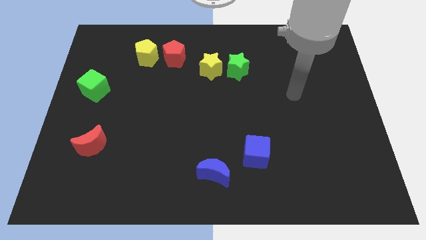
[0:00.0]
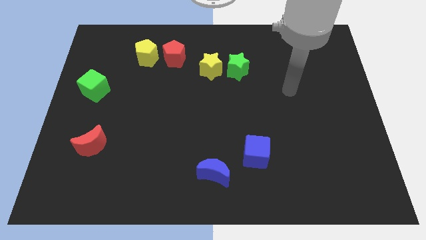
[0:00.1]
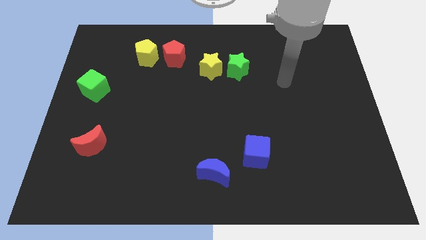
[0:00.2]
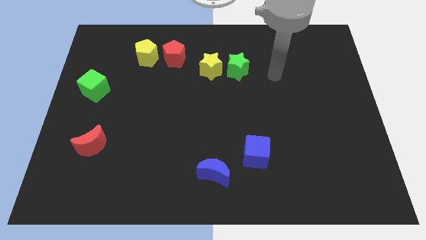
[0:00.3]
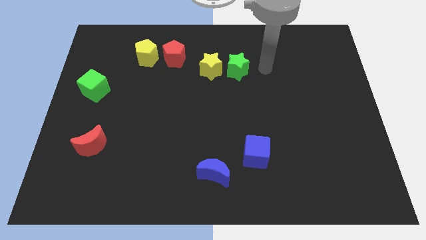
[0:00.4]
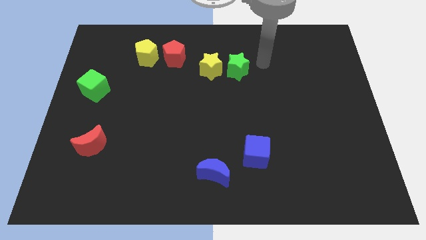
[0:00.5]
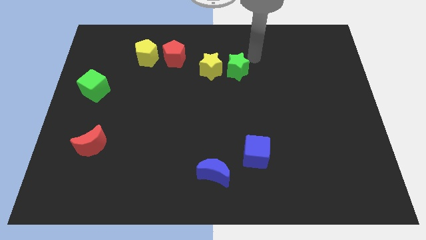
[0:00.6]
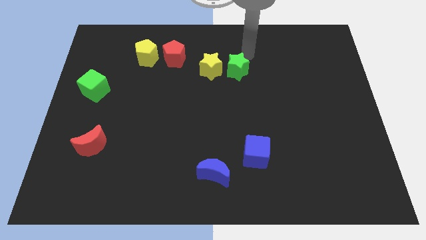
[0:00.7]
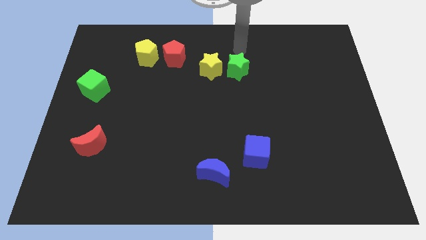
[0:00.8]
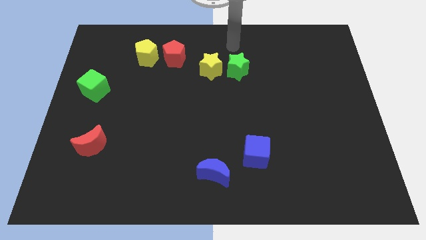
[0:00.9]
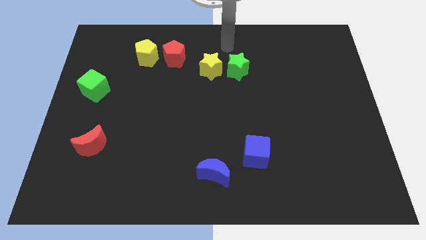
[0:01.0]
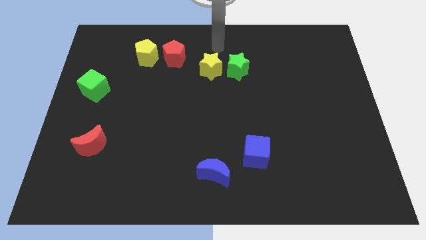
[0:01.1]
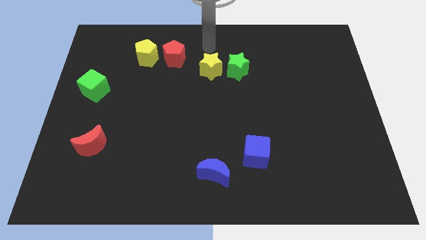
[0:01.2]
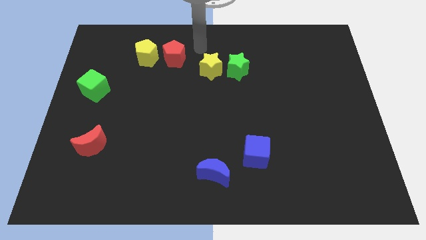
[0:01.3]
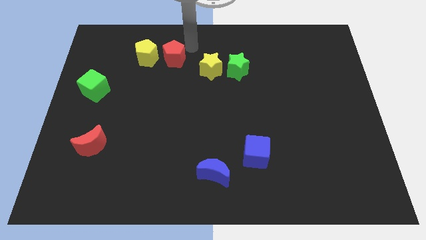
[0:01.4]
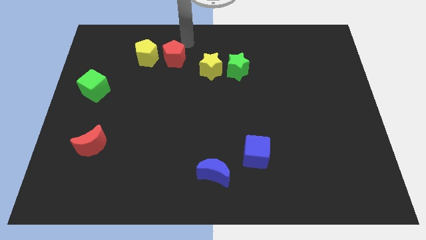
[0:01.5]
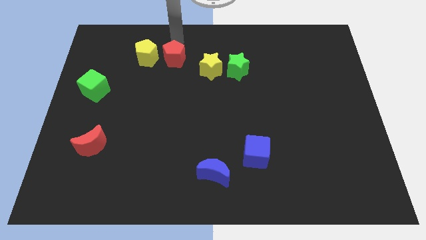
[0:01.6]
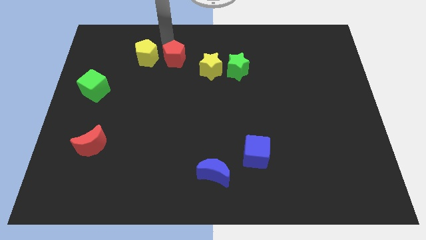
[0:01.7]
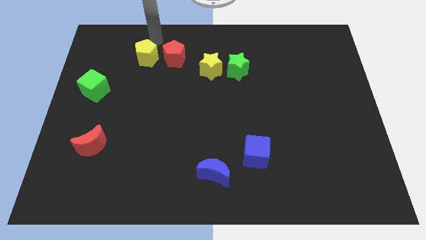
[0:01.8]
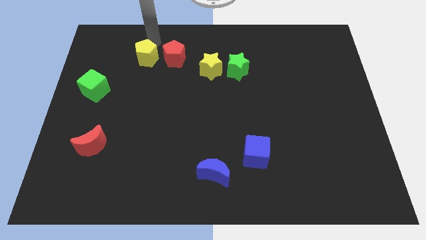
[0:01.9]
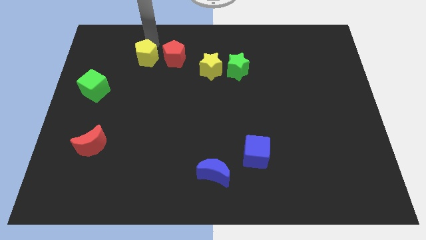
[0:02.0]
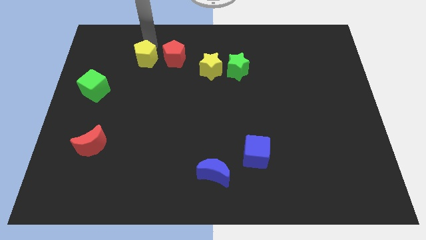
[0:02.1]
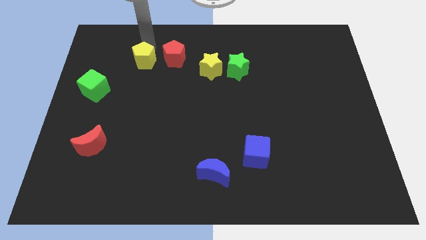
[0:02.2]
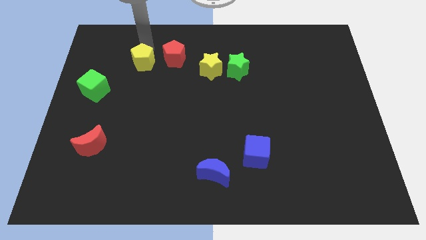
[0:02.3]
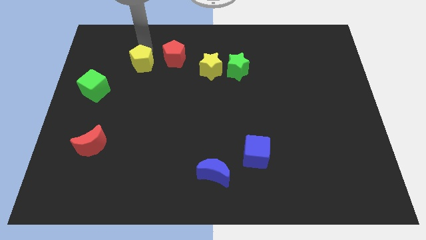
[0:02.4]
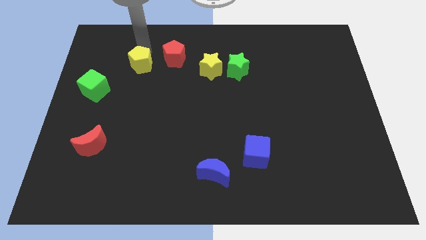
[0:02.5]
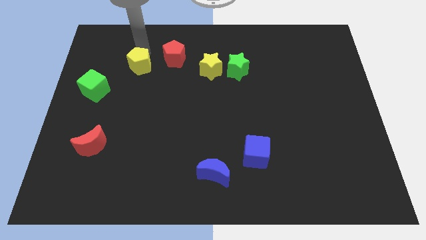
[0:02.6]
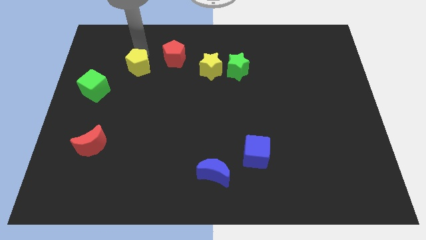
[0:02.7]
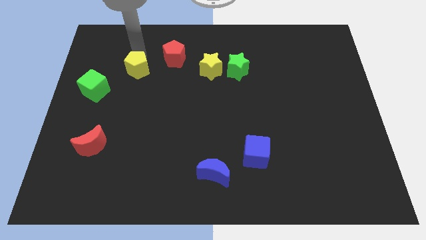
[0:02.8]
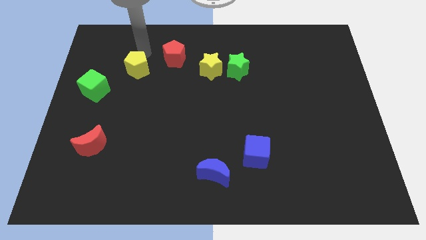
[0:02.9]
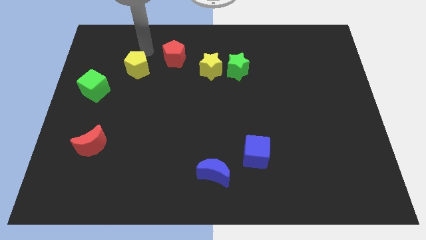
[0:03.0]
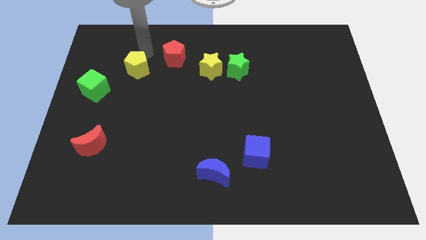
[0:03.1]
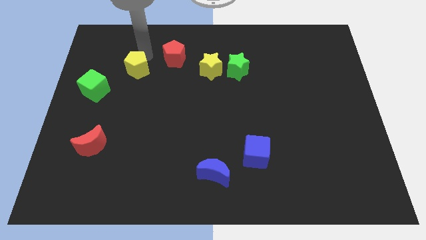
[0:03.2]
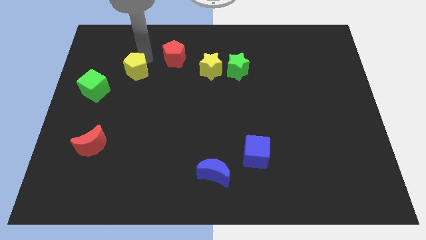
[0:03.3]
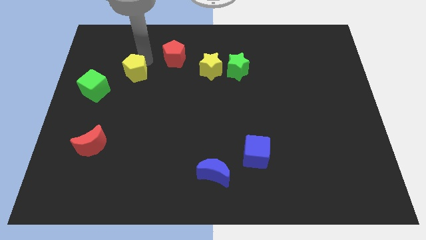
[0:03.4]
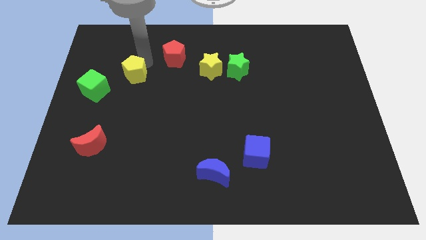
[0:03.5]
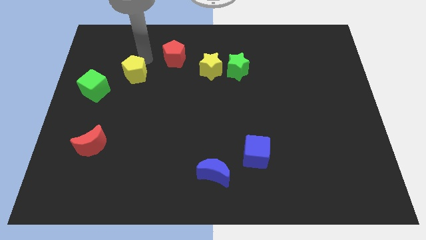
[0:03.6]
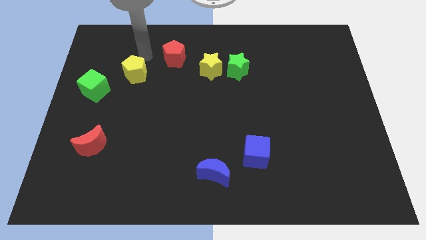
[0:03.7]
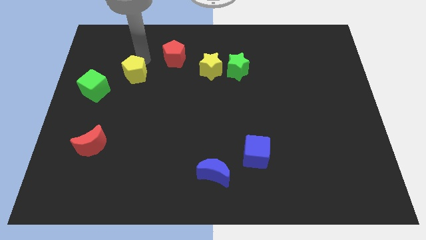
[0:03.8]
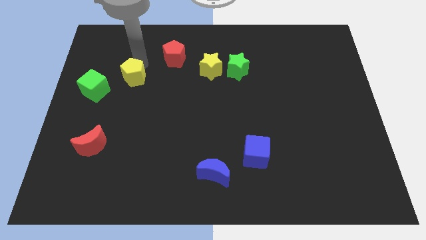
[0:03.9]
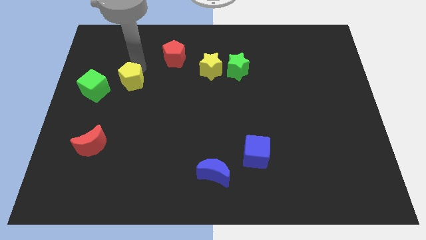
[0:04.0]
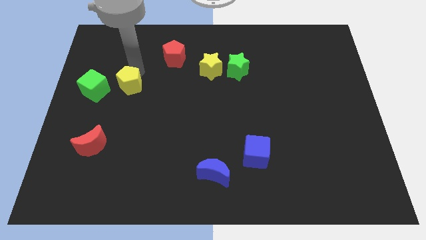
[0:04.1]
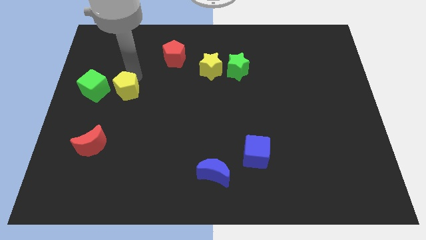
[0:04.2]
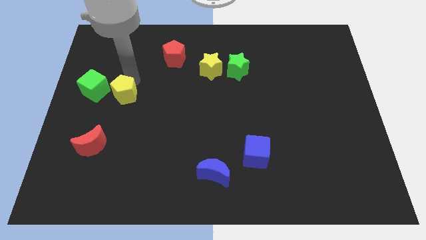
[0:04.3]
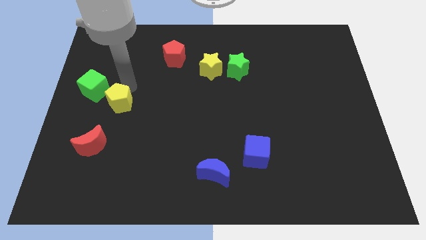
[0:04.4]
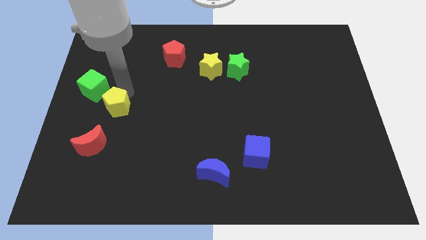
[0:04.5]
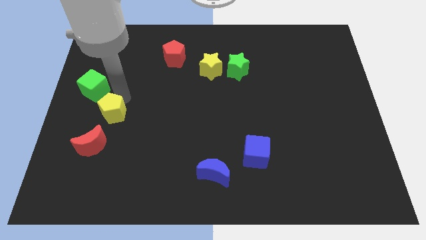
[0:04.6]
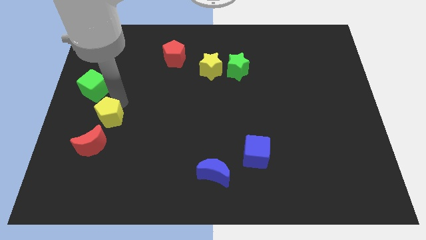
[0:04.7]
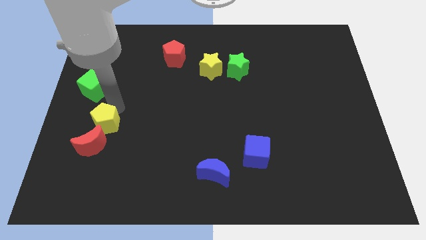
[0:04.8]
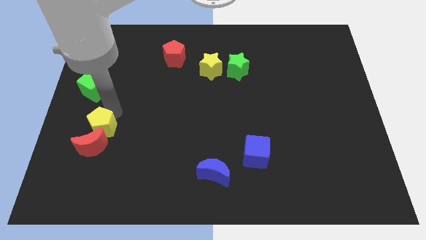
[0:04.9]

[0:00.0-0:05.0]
slide the yellow pentagon to the red moon

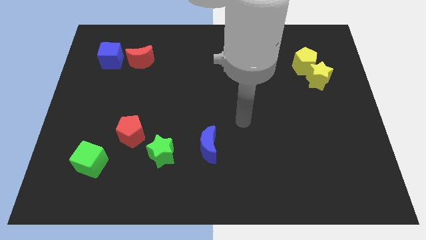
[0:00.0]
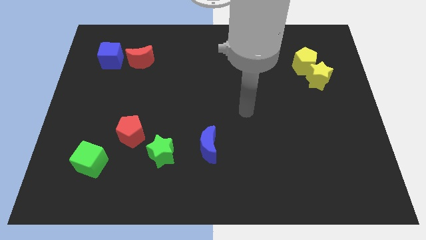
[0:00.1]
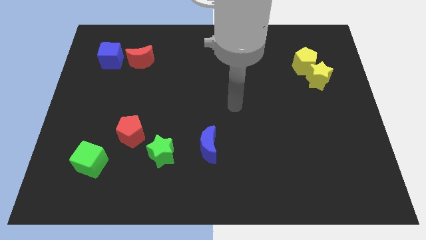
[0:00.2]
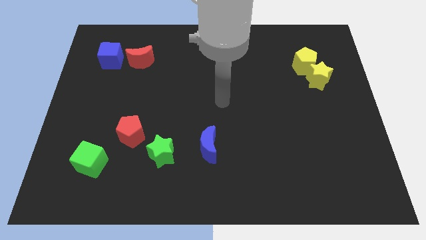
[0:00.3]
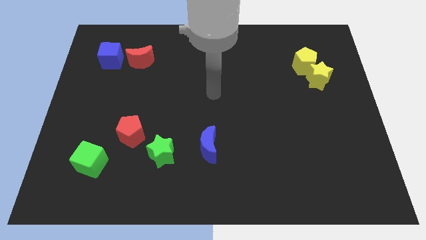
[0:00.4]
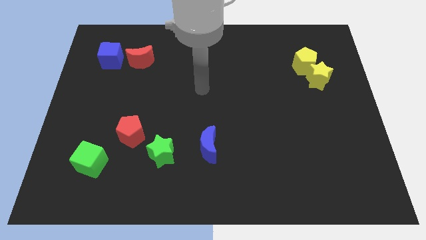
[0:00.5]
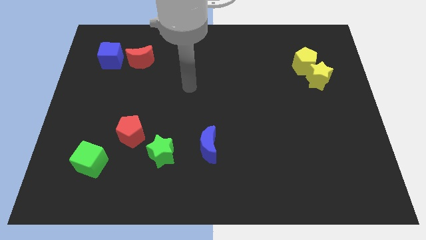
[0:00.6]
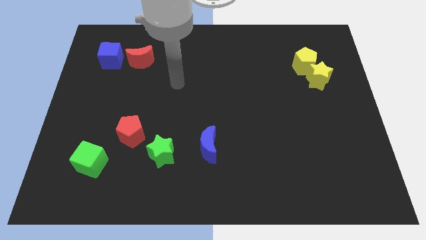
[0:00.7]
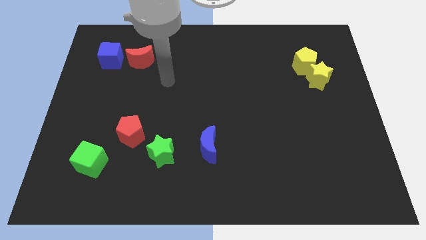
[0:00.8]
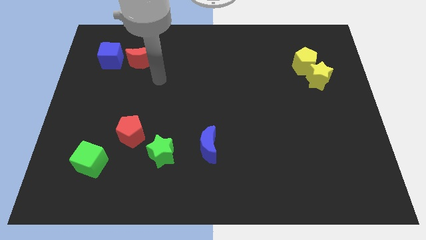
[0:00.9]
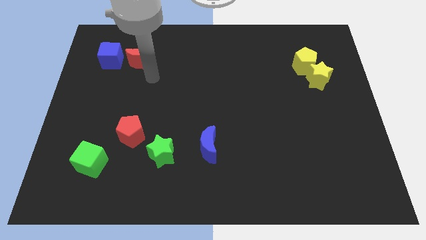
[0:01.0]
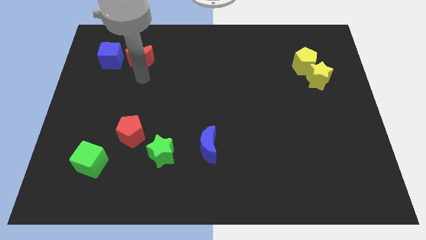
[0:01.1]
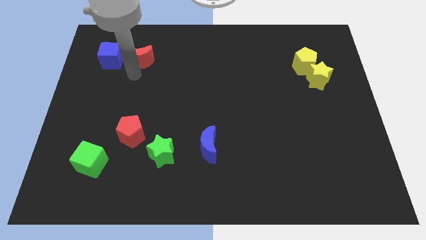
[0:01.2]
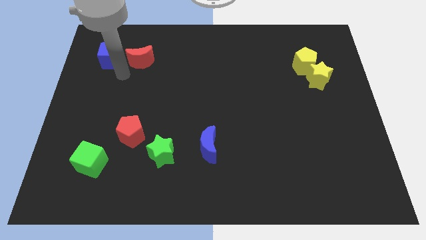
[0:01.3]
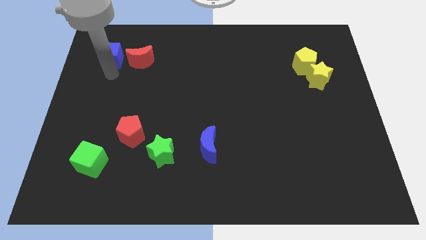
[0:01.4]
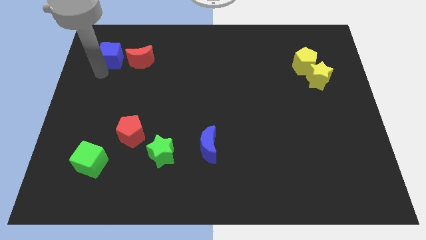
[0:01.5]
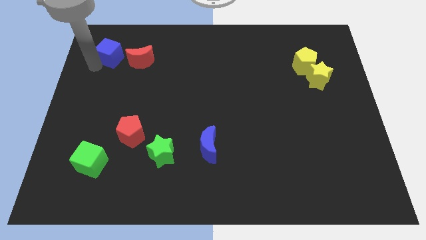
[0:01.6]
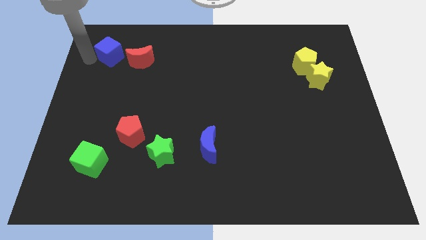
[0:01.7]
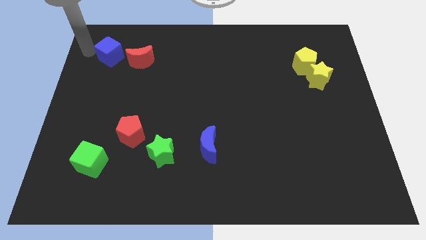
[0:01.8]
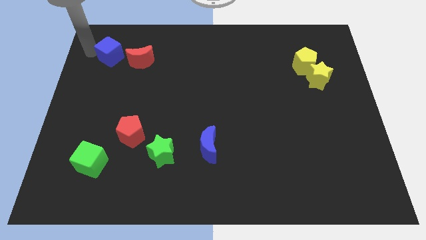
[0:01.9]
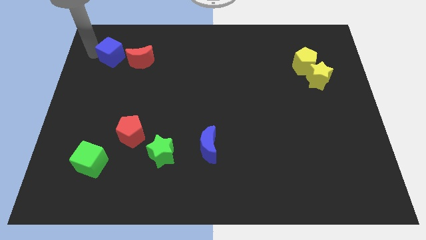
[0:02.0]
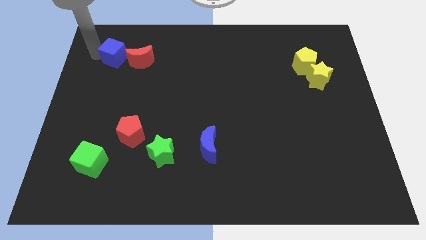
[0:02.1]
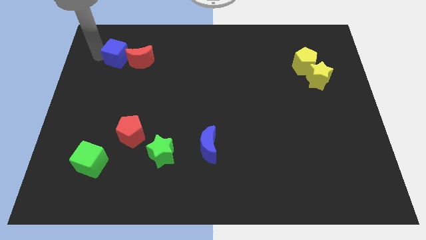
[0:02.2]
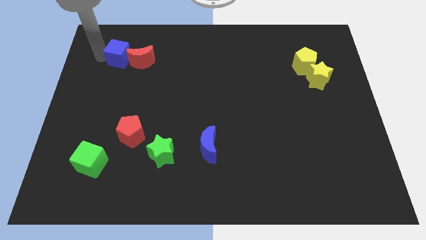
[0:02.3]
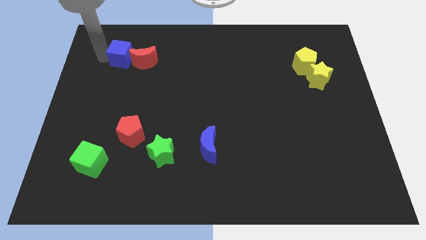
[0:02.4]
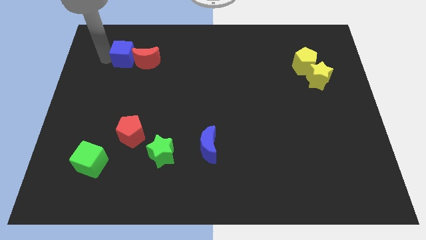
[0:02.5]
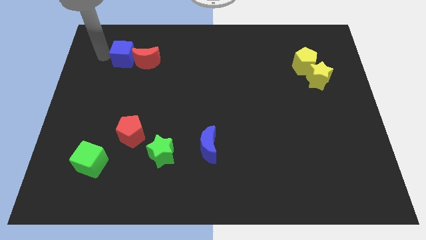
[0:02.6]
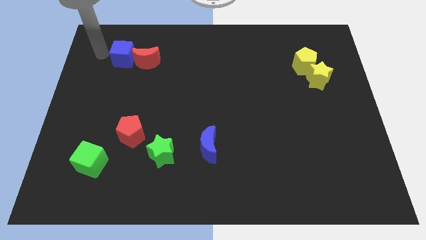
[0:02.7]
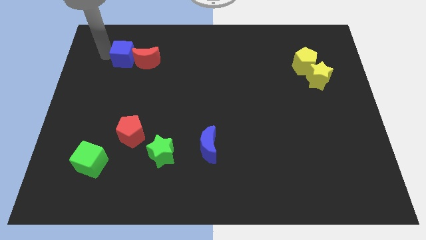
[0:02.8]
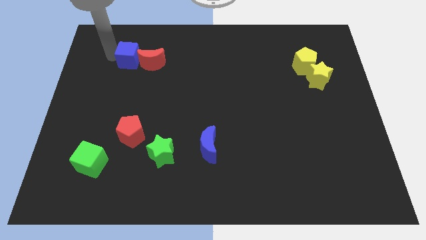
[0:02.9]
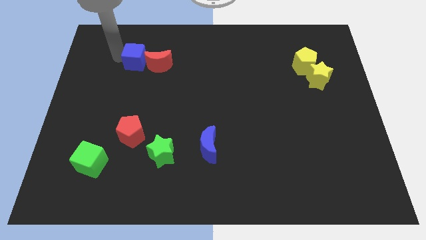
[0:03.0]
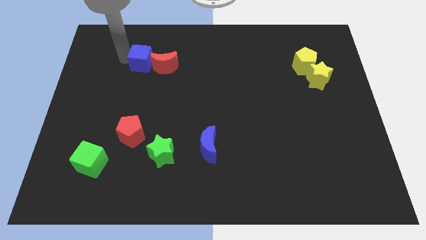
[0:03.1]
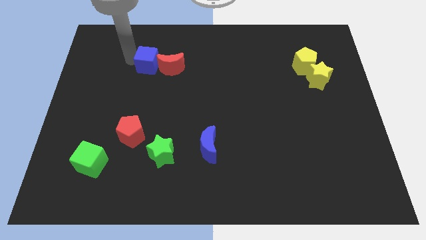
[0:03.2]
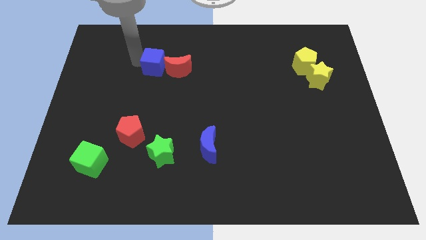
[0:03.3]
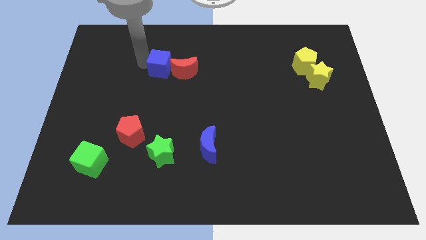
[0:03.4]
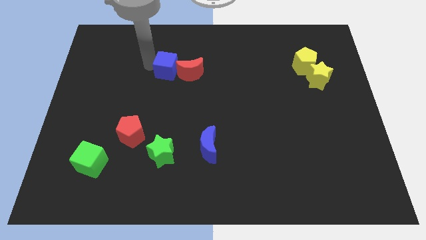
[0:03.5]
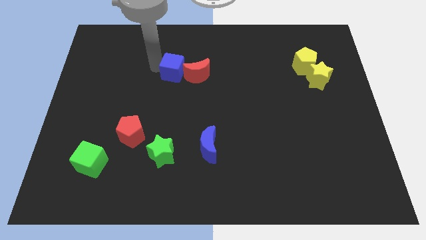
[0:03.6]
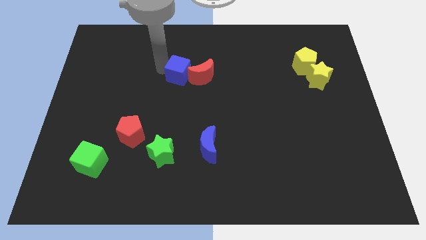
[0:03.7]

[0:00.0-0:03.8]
put the blue cube close to the red moon
